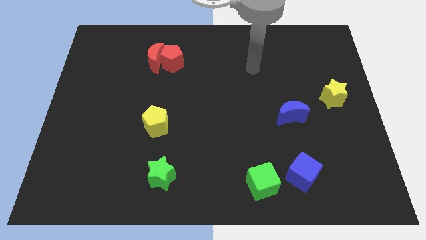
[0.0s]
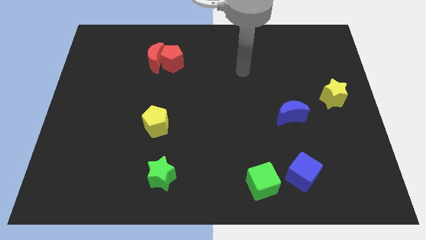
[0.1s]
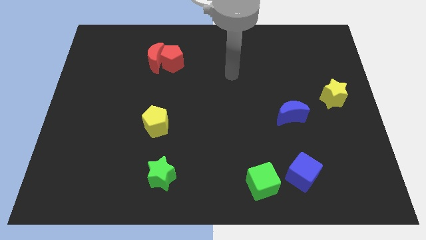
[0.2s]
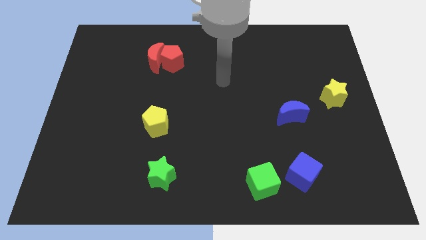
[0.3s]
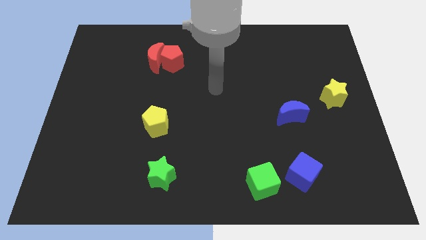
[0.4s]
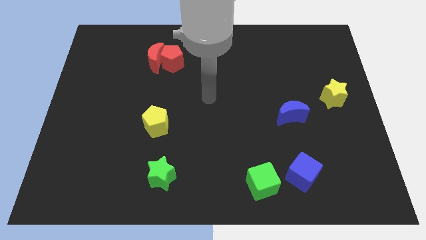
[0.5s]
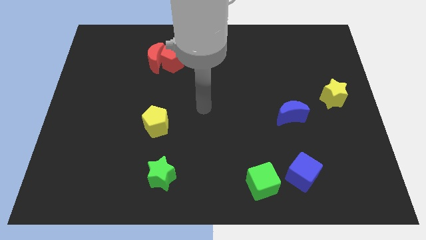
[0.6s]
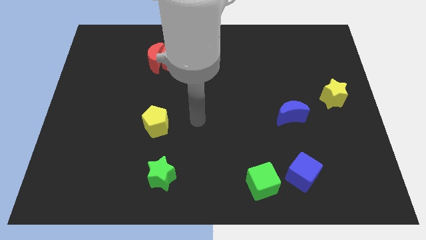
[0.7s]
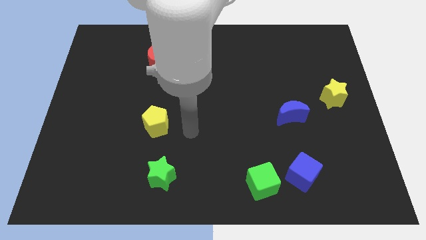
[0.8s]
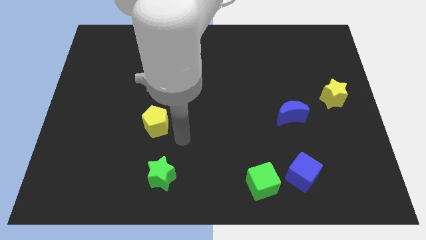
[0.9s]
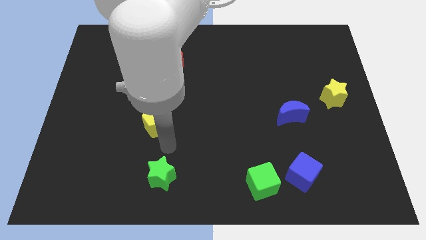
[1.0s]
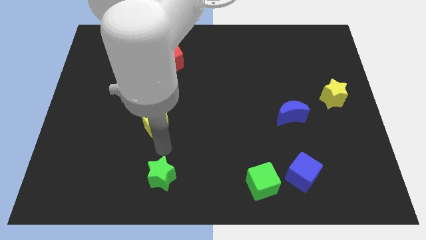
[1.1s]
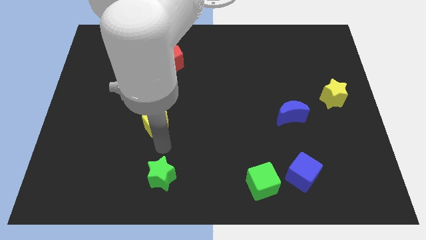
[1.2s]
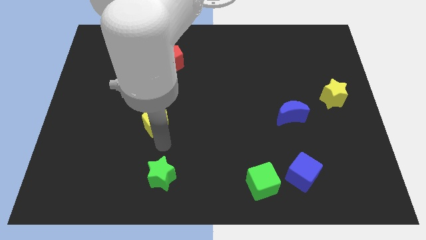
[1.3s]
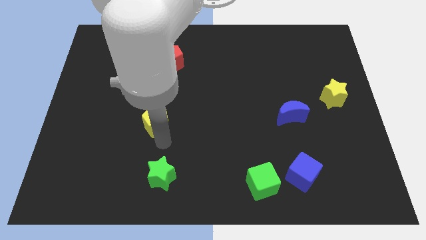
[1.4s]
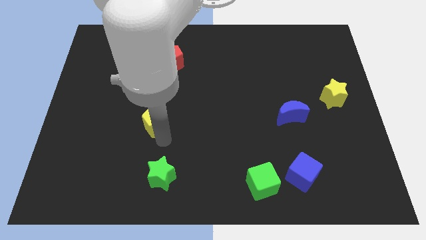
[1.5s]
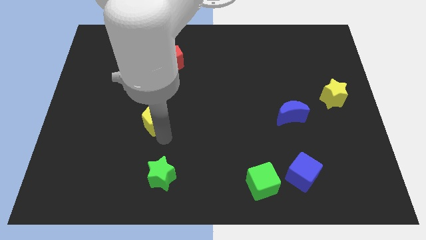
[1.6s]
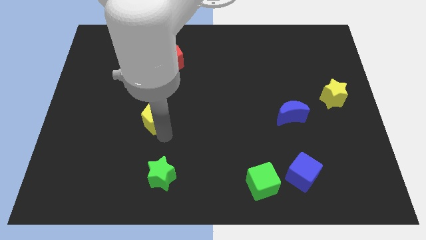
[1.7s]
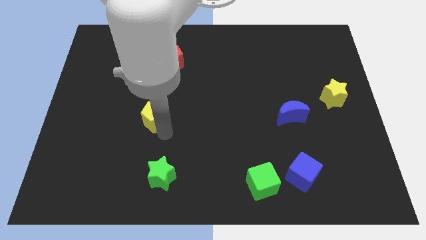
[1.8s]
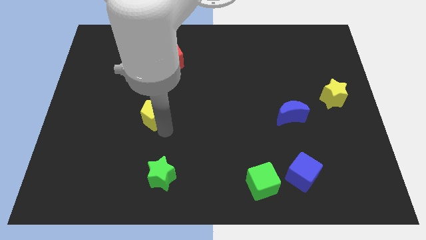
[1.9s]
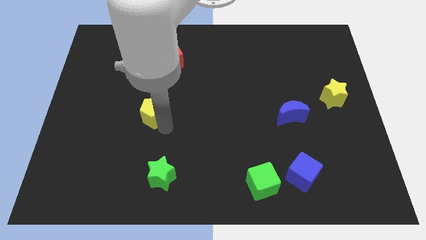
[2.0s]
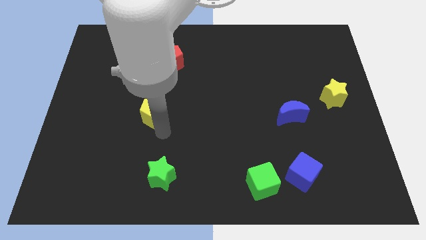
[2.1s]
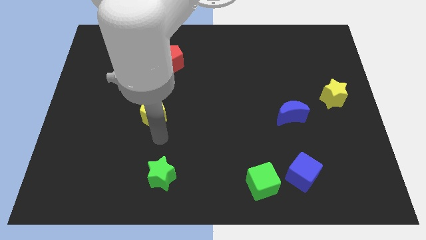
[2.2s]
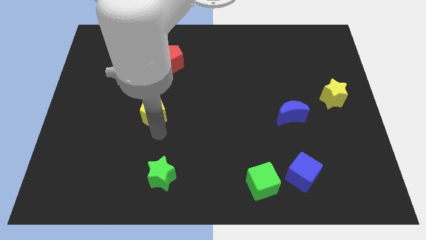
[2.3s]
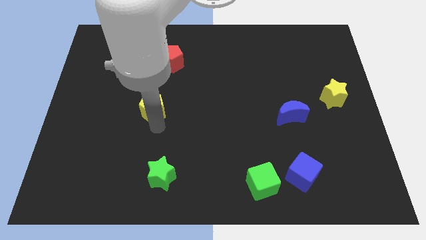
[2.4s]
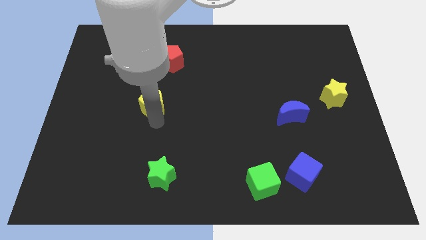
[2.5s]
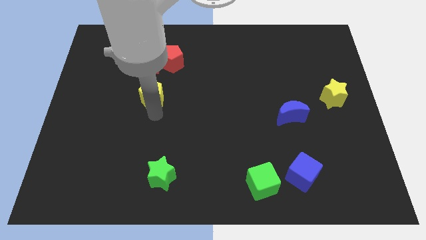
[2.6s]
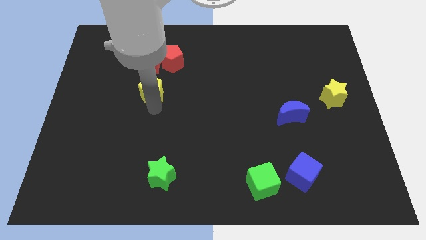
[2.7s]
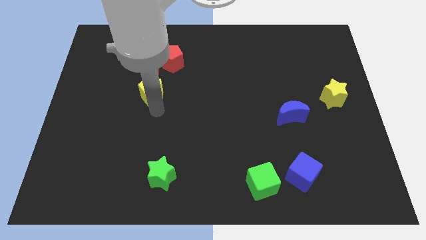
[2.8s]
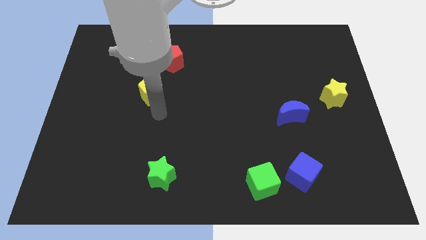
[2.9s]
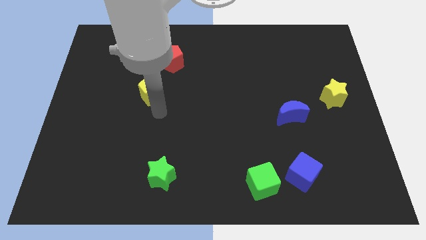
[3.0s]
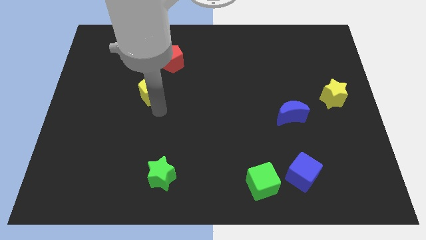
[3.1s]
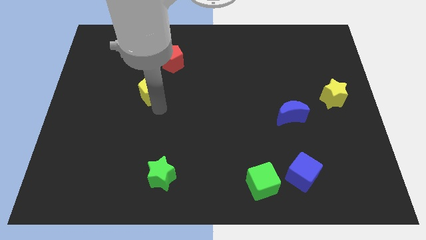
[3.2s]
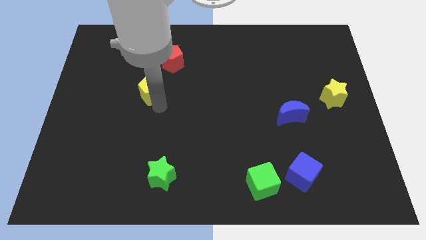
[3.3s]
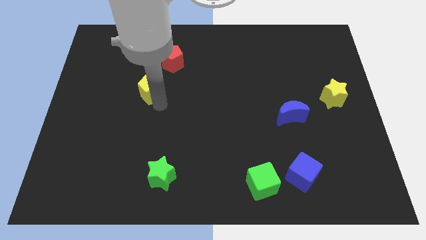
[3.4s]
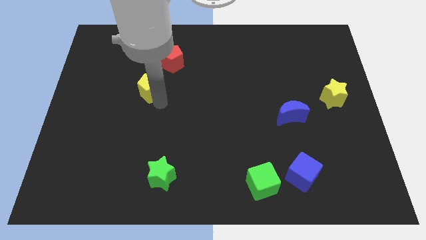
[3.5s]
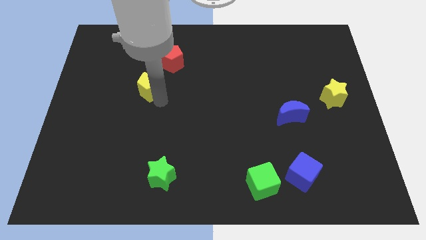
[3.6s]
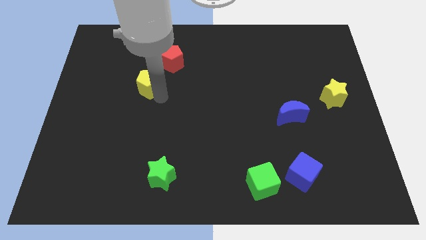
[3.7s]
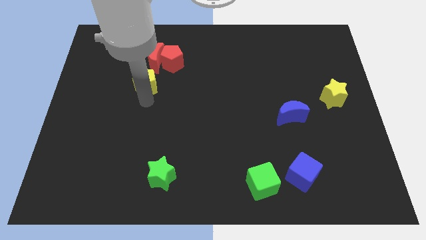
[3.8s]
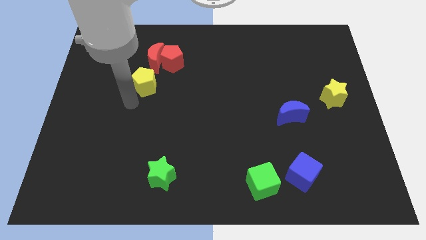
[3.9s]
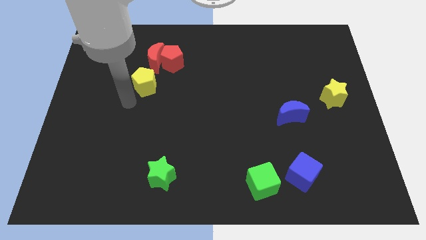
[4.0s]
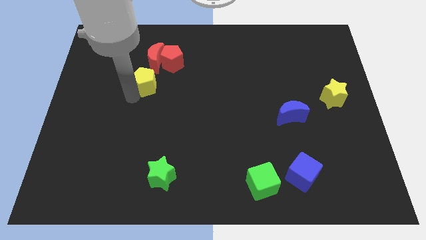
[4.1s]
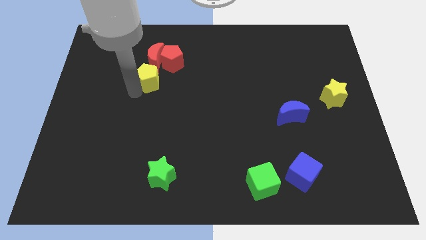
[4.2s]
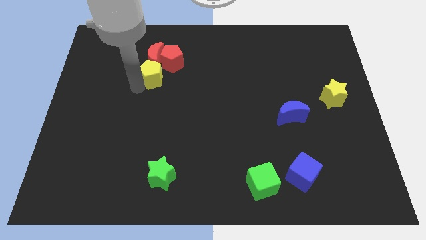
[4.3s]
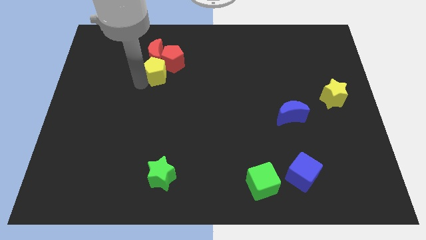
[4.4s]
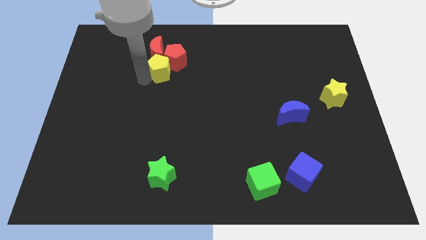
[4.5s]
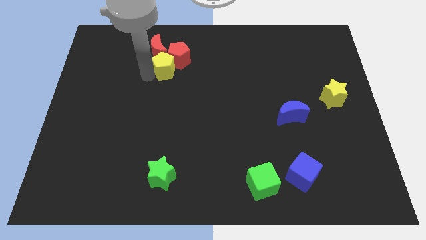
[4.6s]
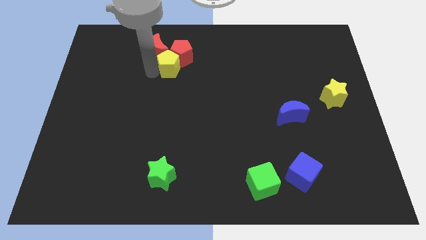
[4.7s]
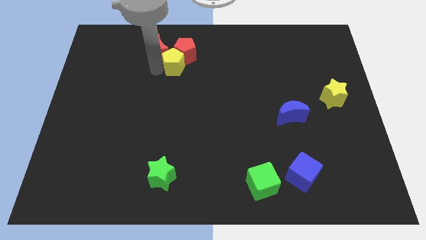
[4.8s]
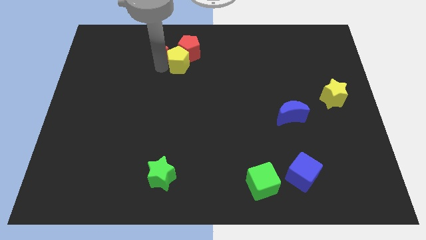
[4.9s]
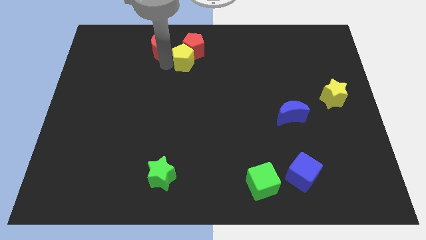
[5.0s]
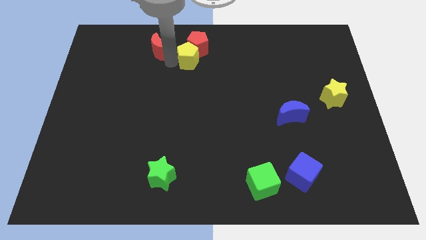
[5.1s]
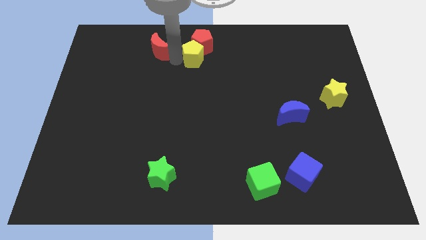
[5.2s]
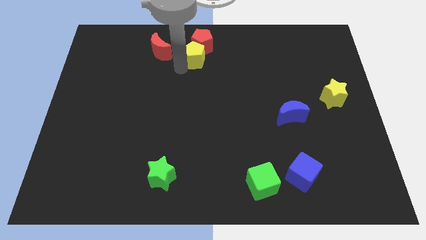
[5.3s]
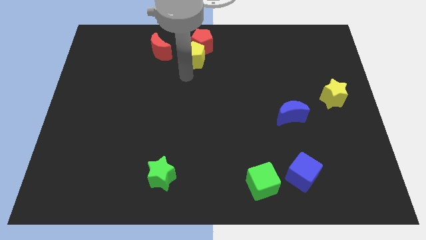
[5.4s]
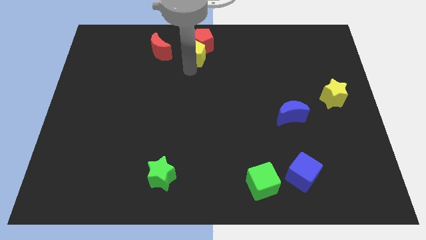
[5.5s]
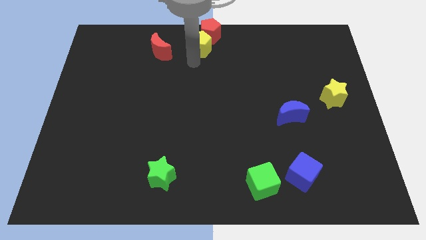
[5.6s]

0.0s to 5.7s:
put the yellow pentagon to the top side
